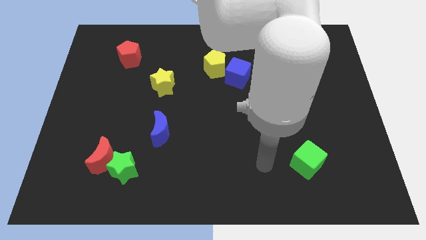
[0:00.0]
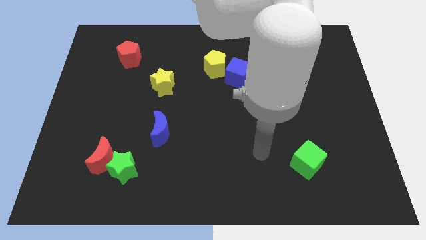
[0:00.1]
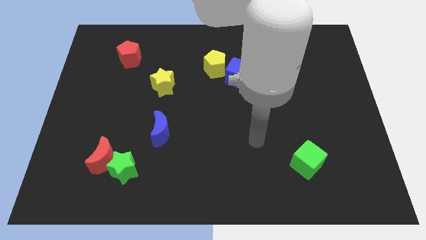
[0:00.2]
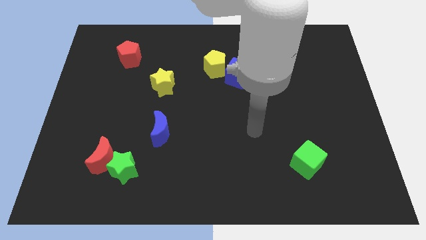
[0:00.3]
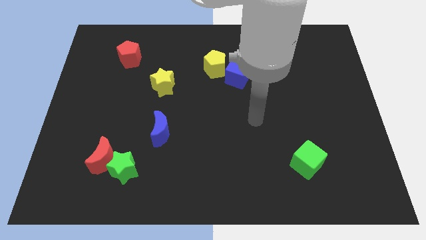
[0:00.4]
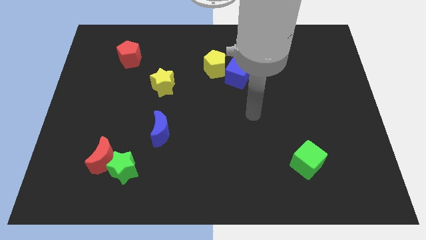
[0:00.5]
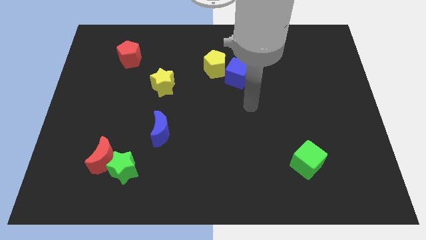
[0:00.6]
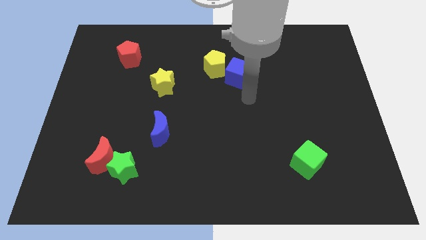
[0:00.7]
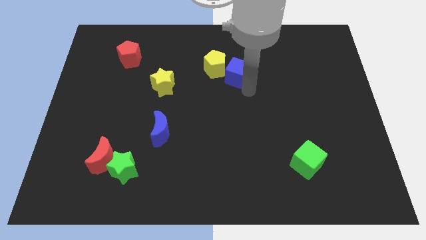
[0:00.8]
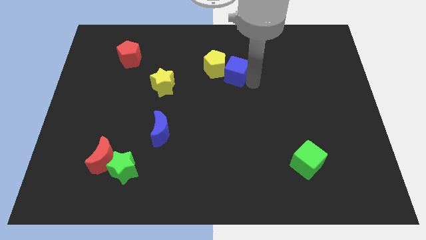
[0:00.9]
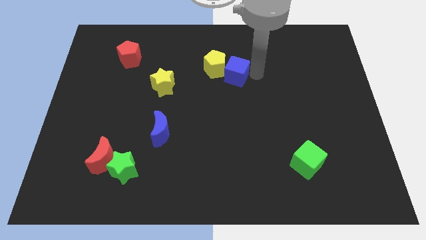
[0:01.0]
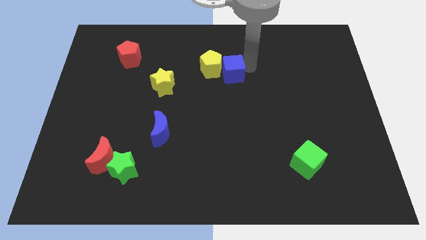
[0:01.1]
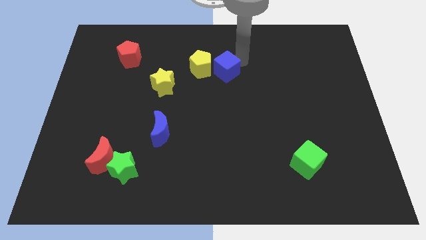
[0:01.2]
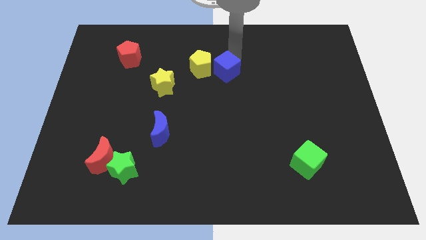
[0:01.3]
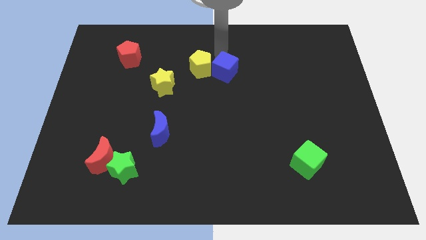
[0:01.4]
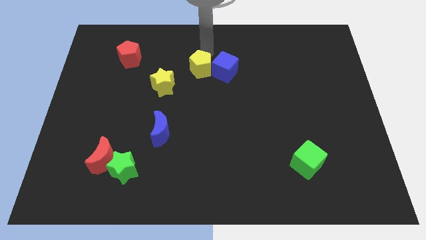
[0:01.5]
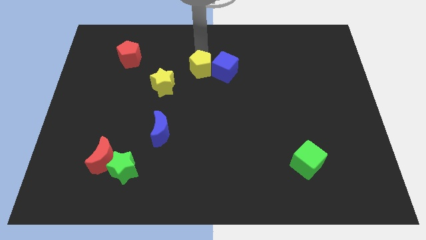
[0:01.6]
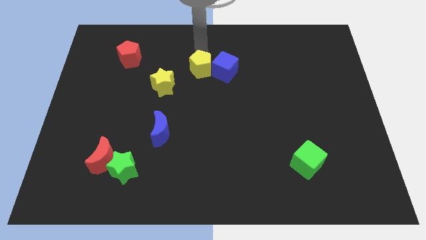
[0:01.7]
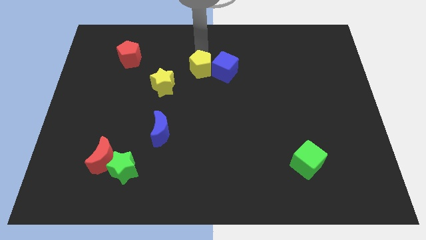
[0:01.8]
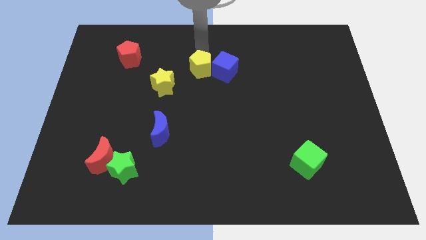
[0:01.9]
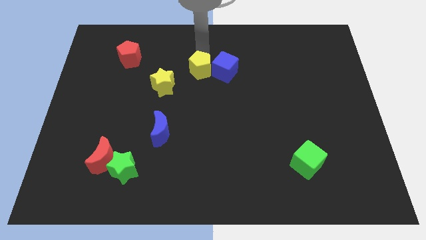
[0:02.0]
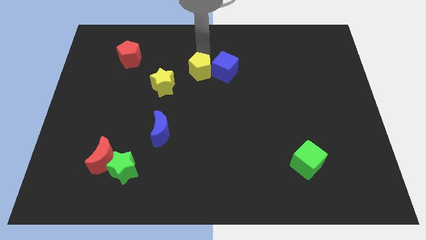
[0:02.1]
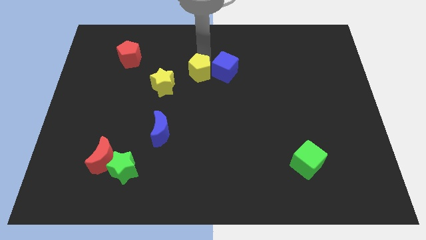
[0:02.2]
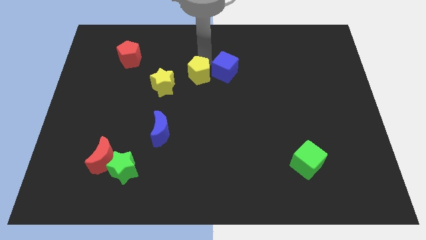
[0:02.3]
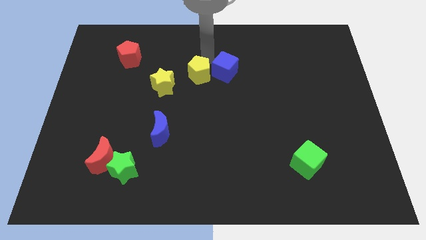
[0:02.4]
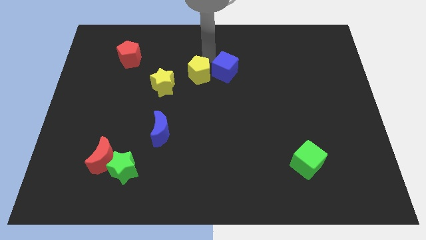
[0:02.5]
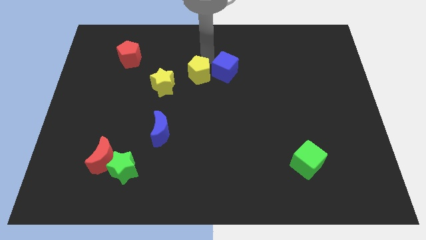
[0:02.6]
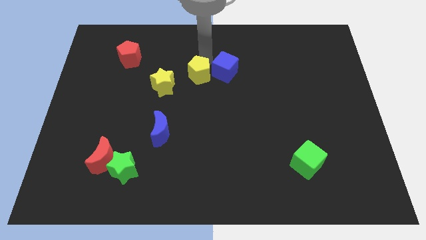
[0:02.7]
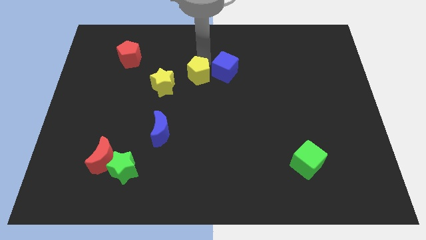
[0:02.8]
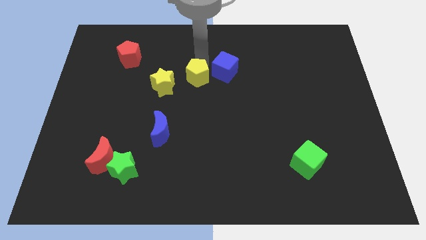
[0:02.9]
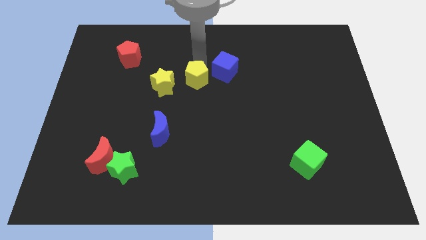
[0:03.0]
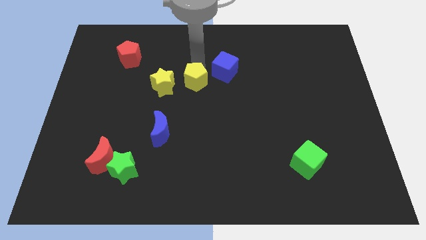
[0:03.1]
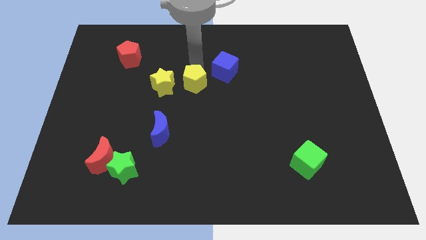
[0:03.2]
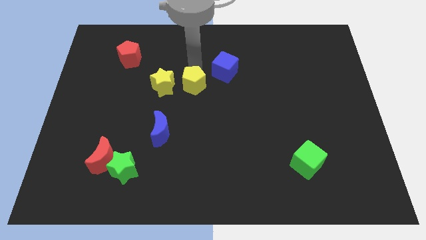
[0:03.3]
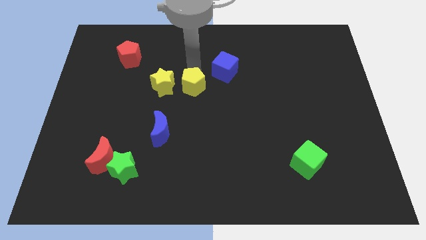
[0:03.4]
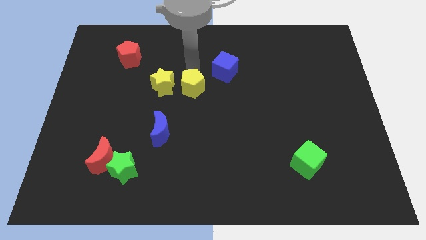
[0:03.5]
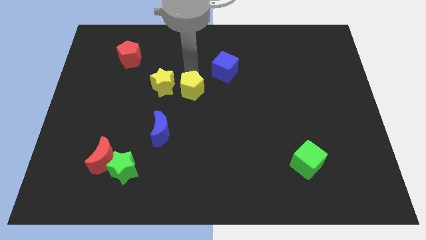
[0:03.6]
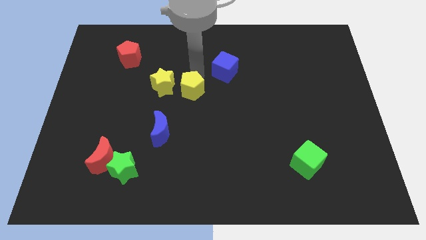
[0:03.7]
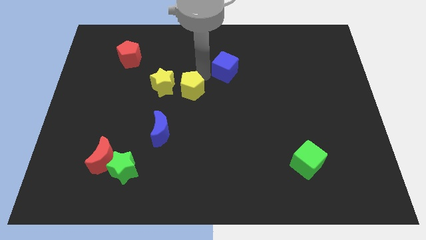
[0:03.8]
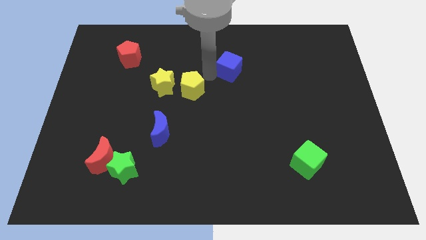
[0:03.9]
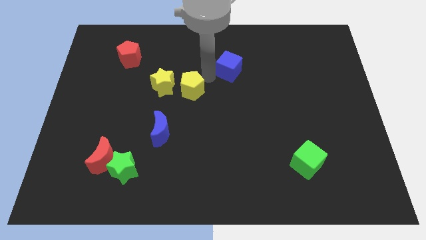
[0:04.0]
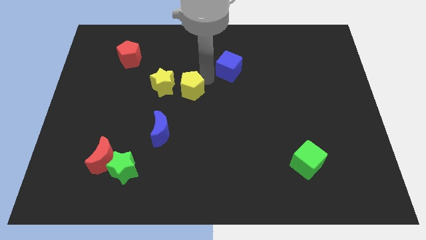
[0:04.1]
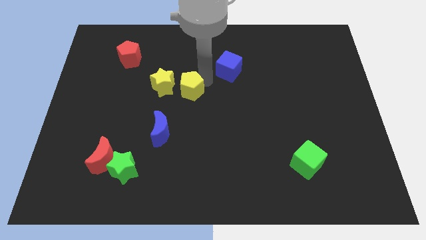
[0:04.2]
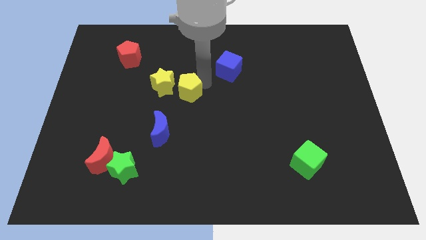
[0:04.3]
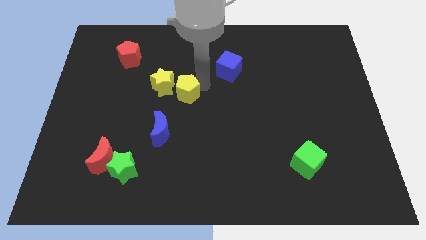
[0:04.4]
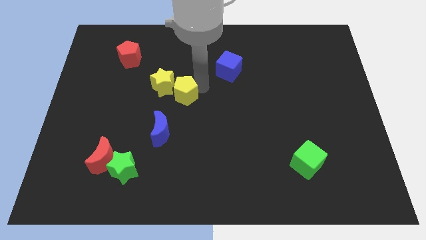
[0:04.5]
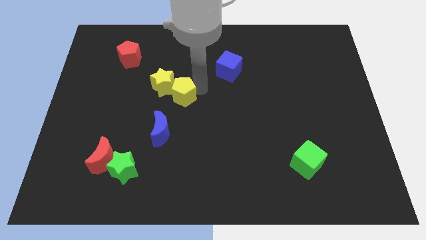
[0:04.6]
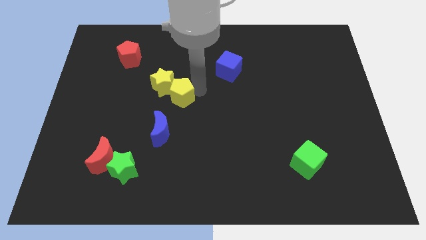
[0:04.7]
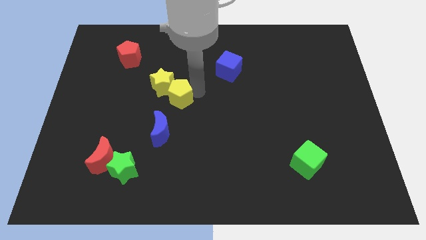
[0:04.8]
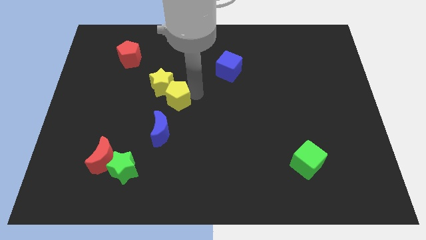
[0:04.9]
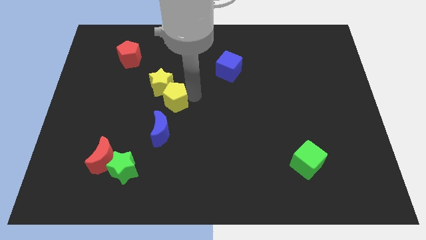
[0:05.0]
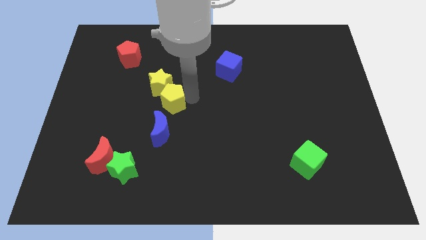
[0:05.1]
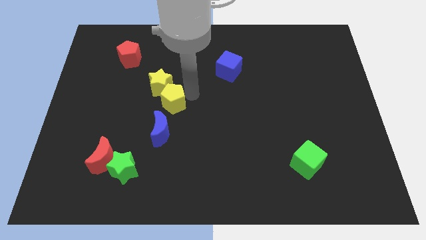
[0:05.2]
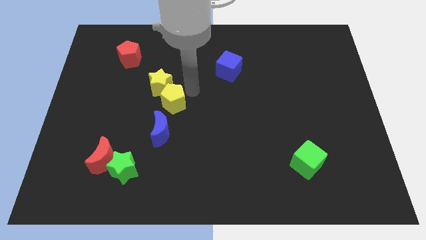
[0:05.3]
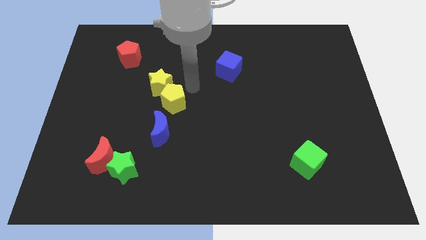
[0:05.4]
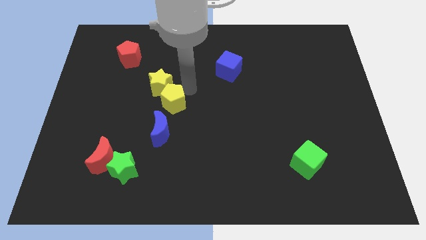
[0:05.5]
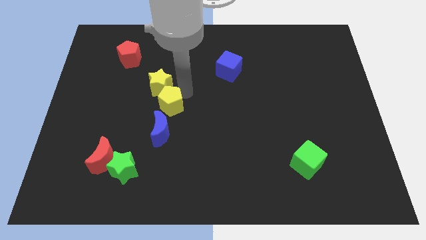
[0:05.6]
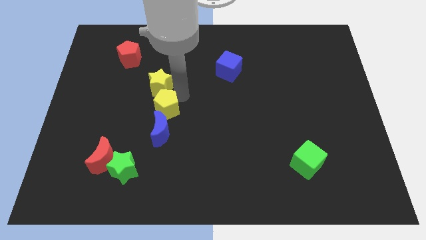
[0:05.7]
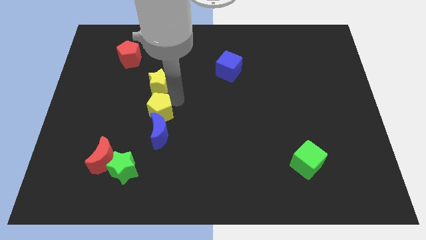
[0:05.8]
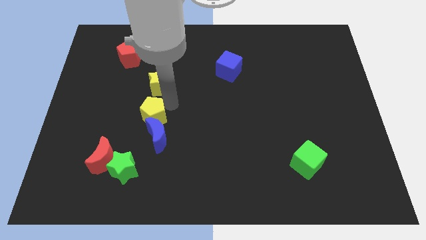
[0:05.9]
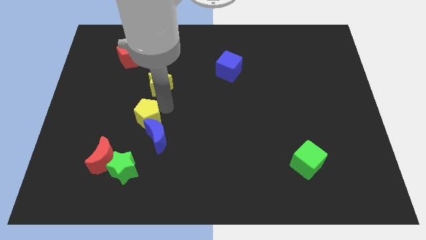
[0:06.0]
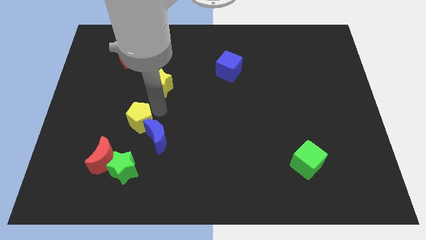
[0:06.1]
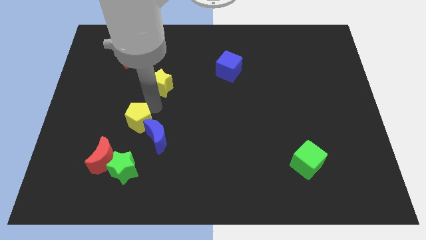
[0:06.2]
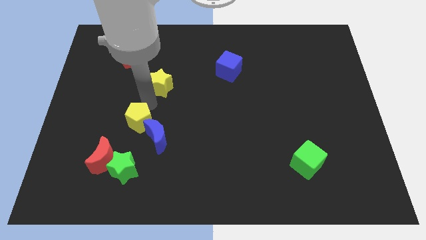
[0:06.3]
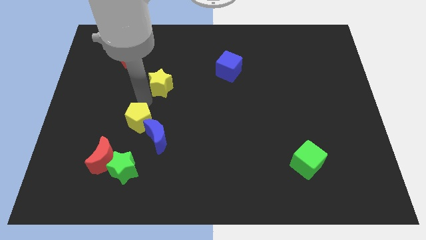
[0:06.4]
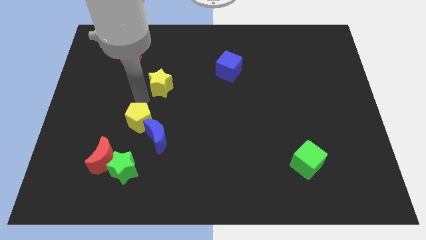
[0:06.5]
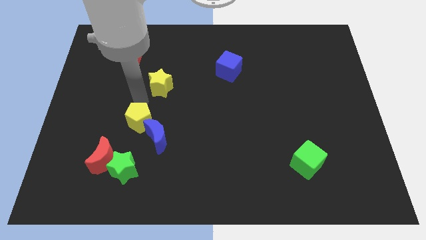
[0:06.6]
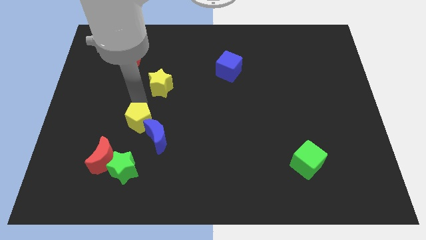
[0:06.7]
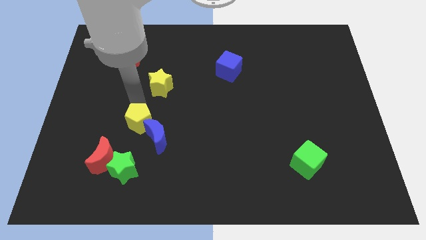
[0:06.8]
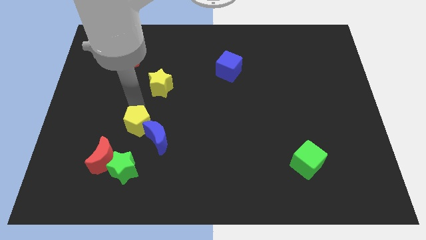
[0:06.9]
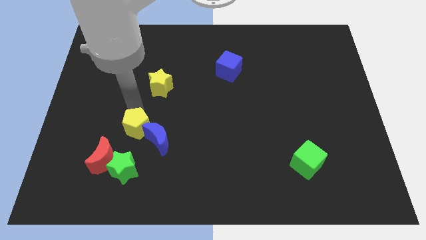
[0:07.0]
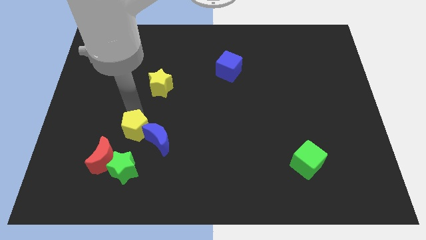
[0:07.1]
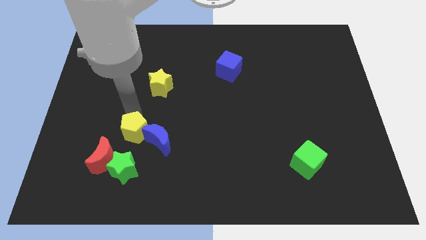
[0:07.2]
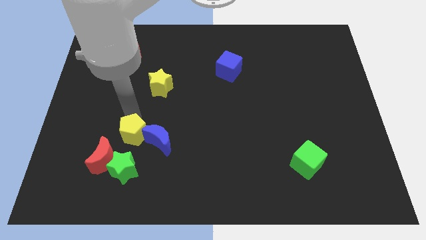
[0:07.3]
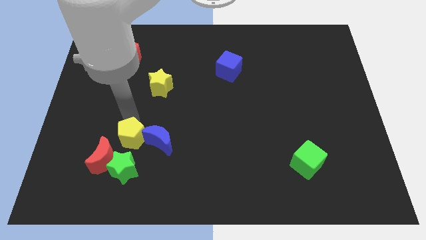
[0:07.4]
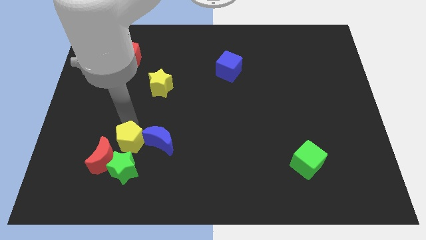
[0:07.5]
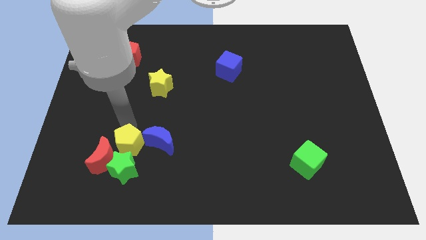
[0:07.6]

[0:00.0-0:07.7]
push the yellow pentagon next to the green star
